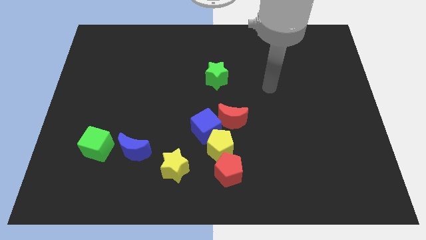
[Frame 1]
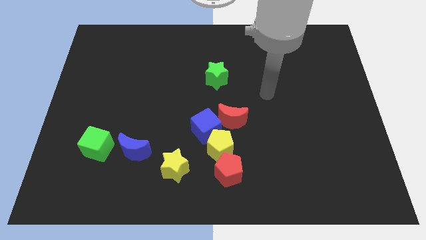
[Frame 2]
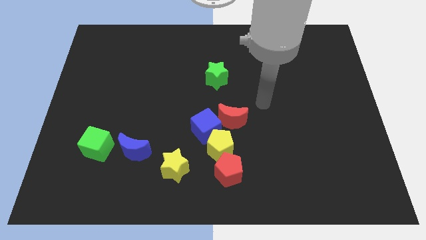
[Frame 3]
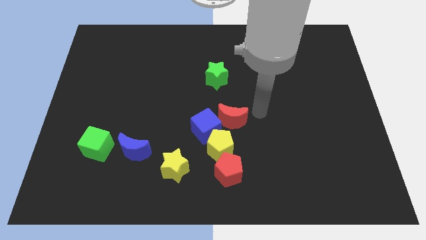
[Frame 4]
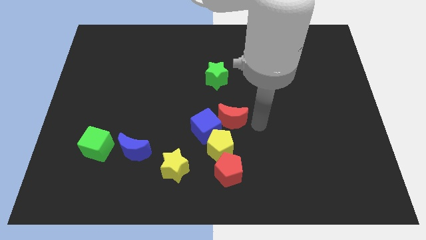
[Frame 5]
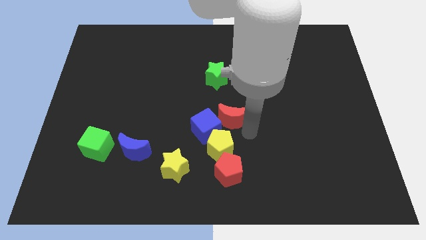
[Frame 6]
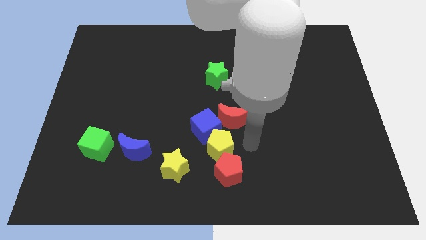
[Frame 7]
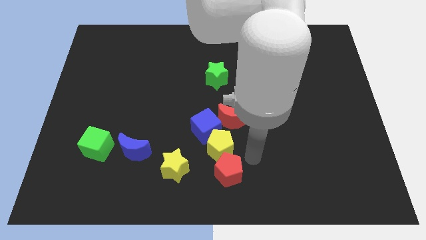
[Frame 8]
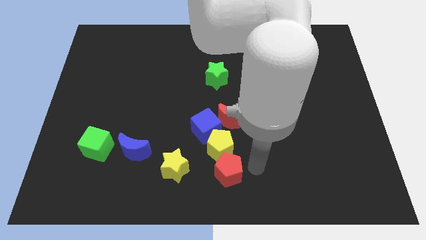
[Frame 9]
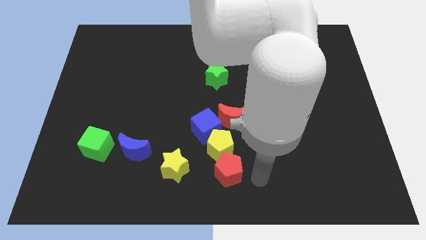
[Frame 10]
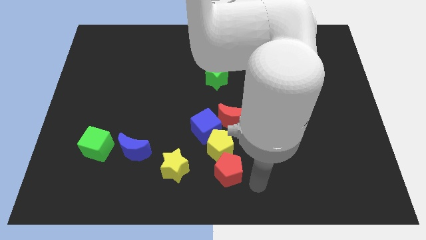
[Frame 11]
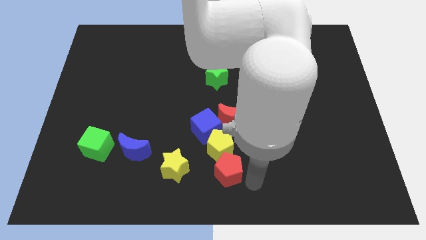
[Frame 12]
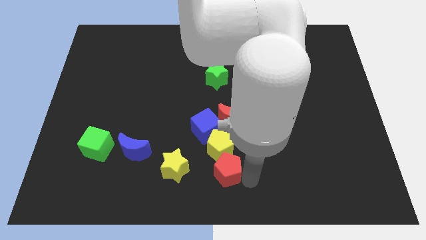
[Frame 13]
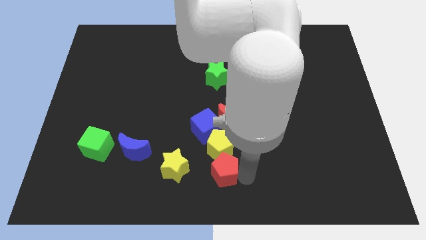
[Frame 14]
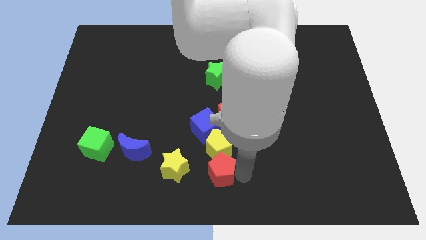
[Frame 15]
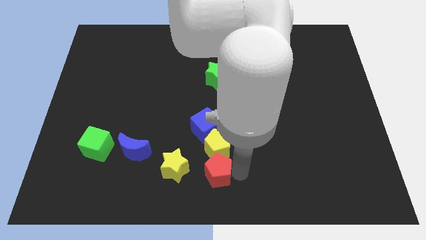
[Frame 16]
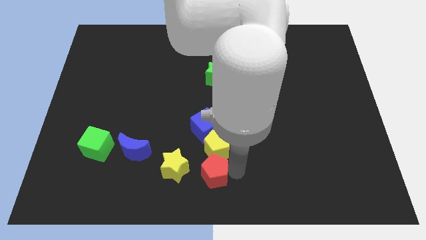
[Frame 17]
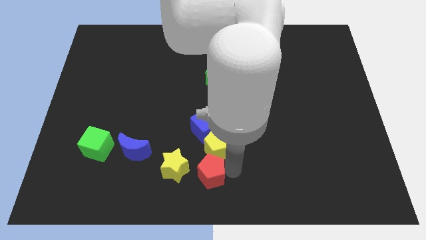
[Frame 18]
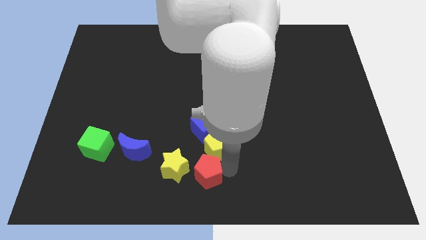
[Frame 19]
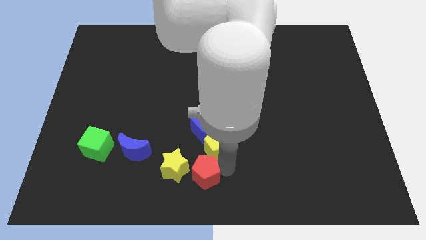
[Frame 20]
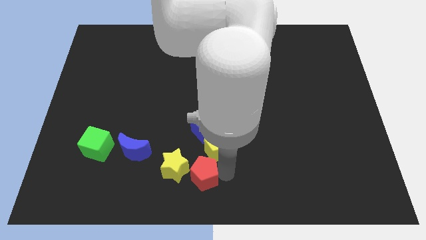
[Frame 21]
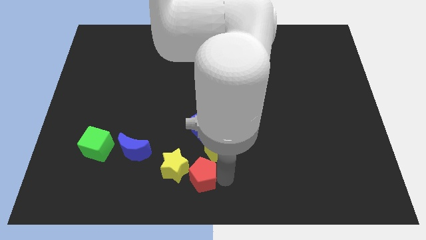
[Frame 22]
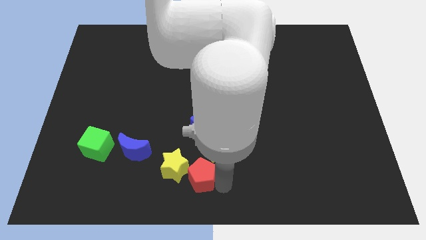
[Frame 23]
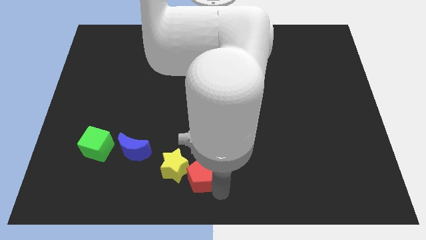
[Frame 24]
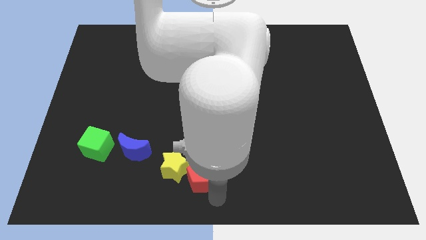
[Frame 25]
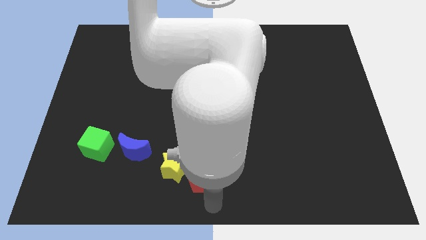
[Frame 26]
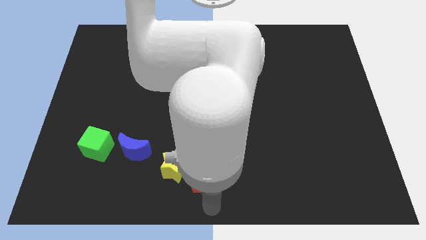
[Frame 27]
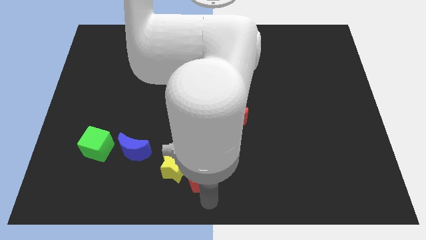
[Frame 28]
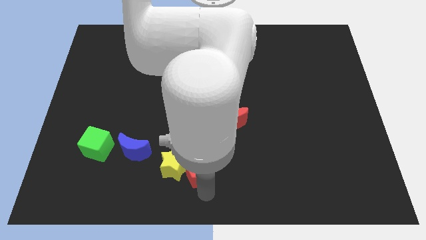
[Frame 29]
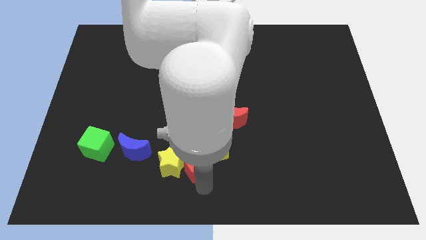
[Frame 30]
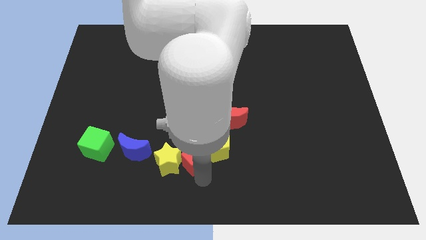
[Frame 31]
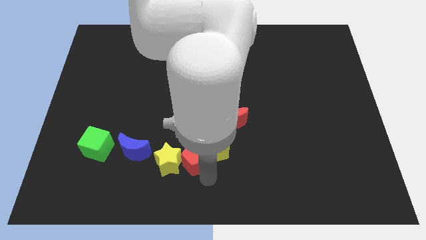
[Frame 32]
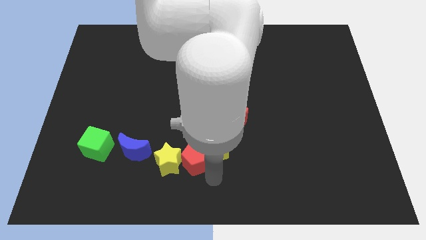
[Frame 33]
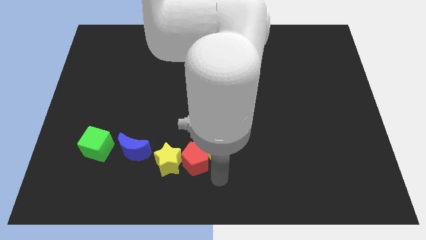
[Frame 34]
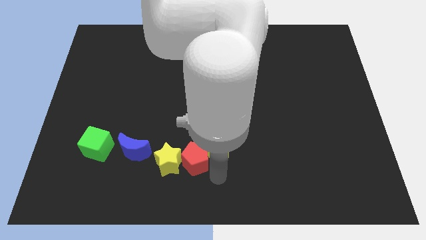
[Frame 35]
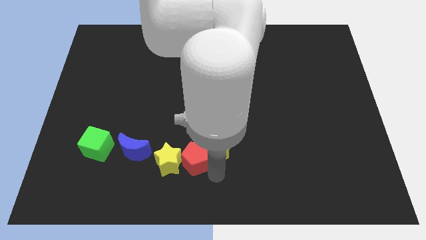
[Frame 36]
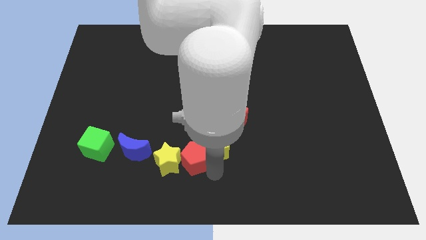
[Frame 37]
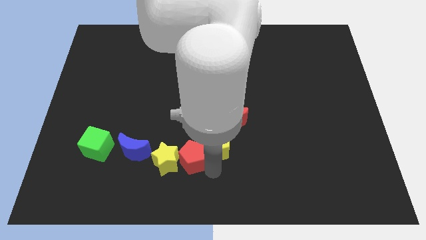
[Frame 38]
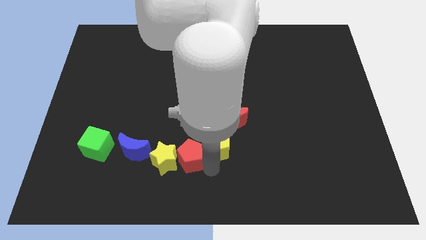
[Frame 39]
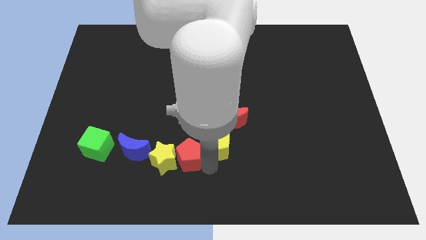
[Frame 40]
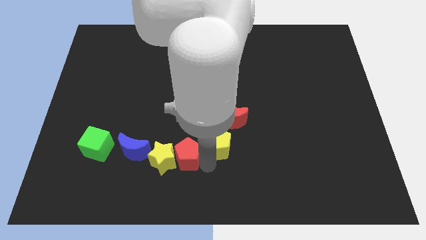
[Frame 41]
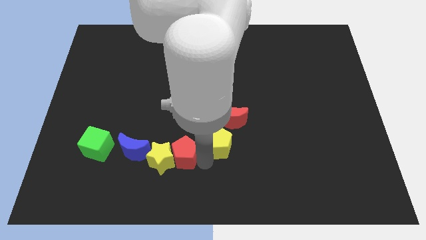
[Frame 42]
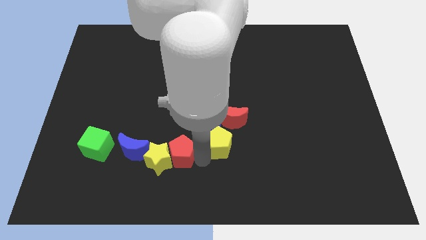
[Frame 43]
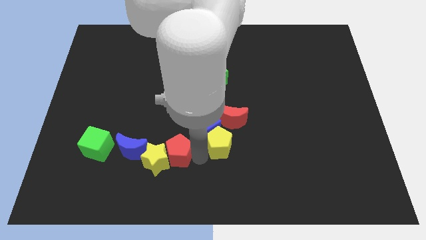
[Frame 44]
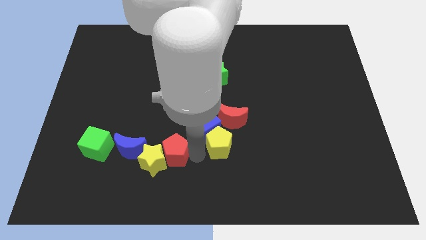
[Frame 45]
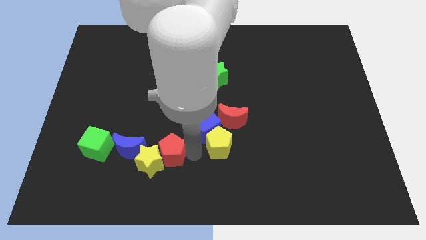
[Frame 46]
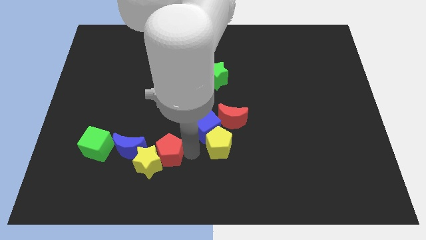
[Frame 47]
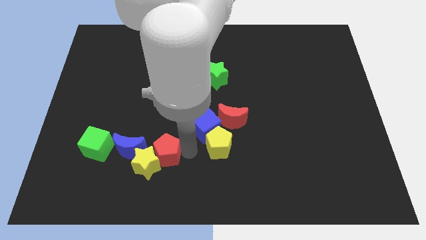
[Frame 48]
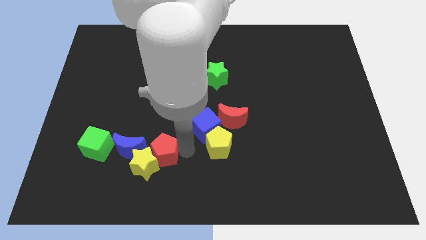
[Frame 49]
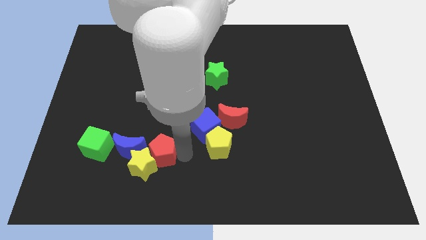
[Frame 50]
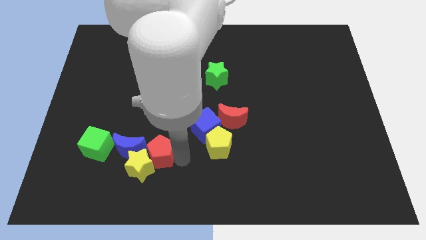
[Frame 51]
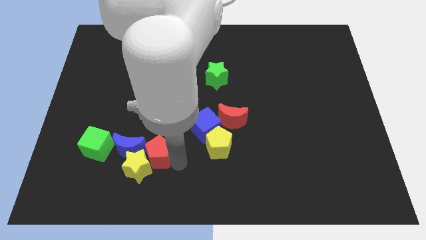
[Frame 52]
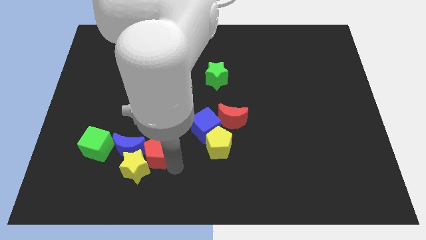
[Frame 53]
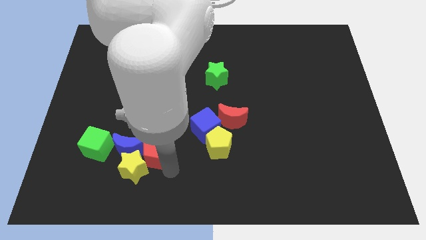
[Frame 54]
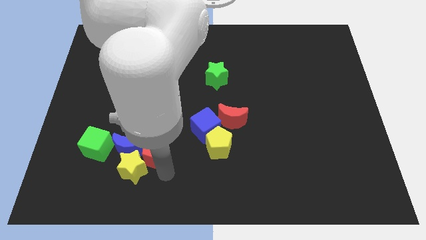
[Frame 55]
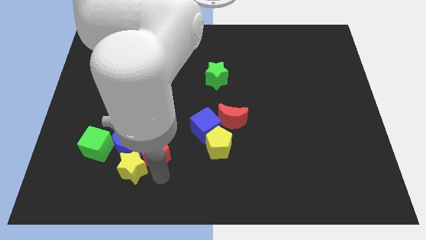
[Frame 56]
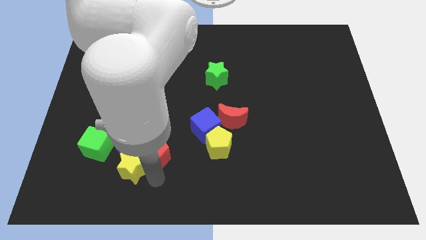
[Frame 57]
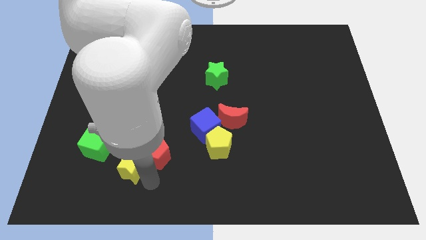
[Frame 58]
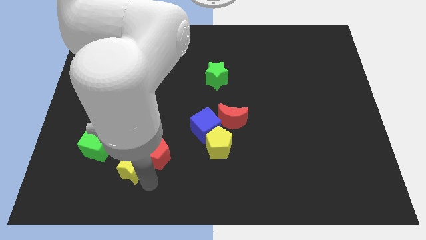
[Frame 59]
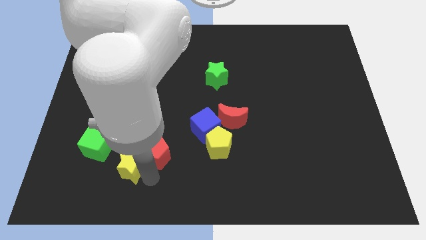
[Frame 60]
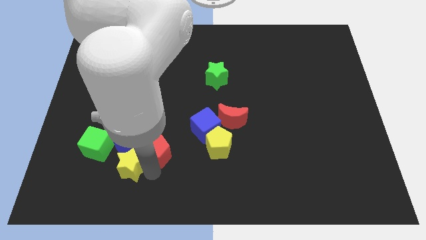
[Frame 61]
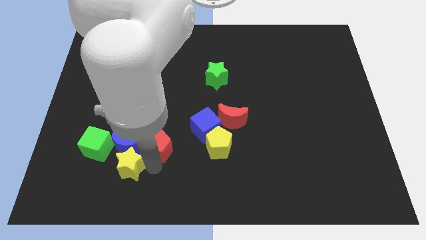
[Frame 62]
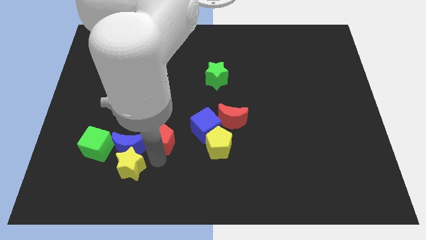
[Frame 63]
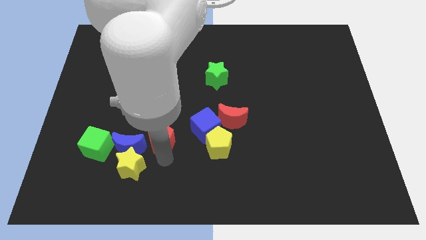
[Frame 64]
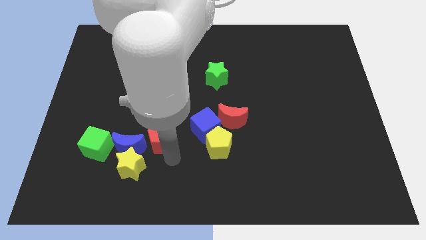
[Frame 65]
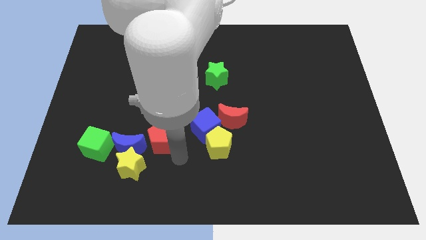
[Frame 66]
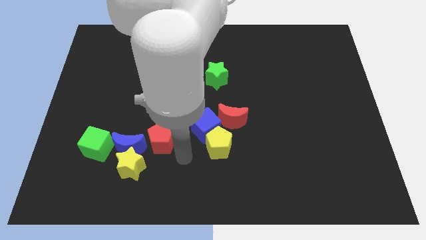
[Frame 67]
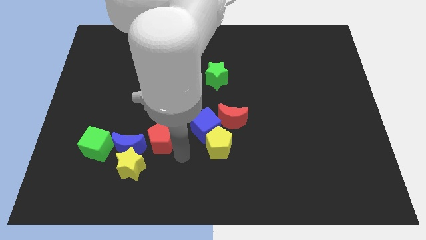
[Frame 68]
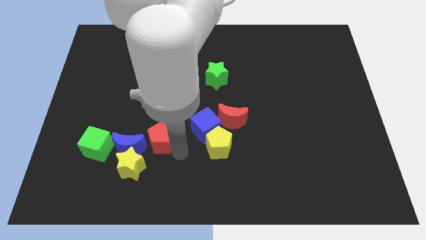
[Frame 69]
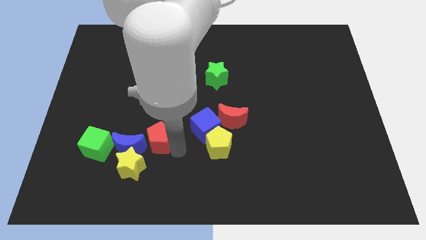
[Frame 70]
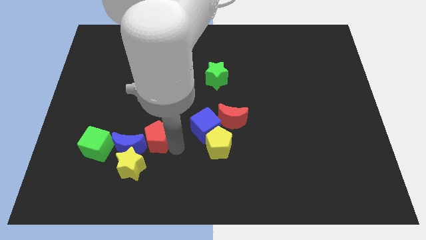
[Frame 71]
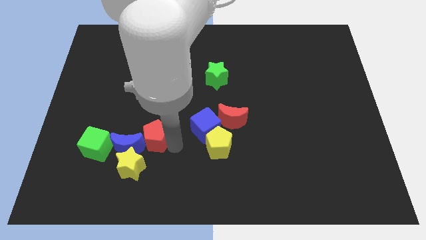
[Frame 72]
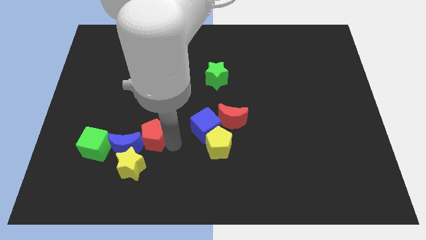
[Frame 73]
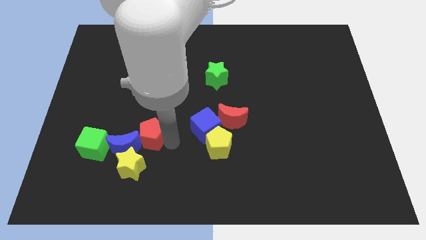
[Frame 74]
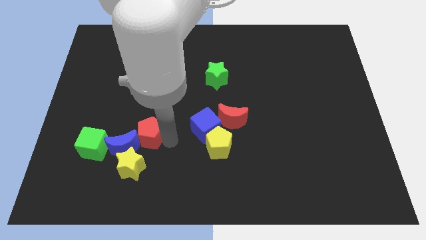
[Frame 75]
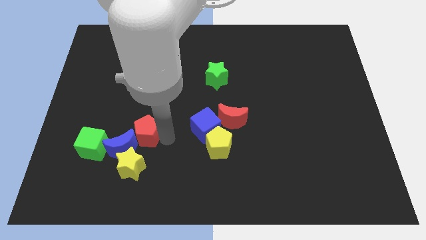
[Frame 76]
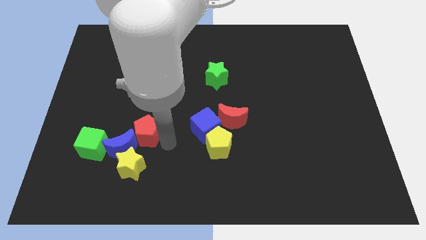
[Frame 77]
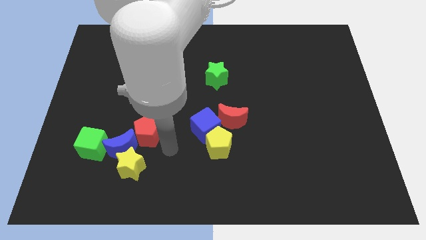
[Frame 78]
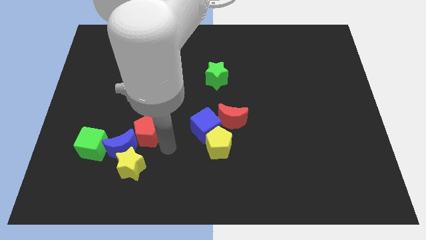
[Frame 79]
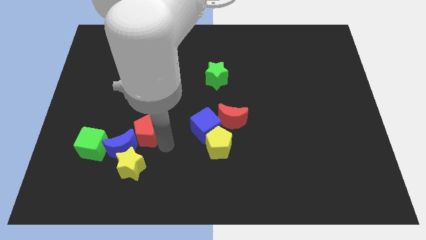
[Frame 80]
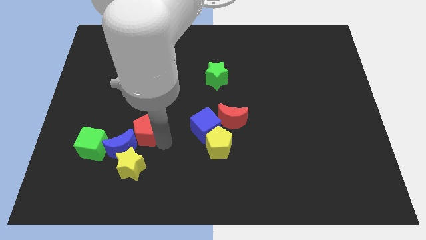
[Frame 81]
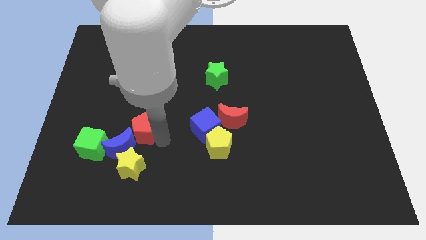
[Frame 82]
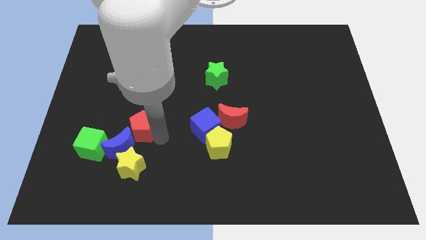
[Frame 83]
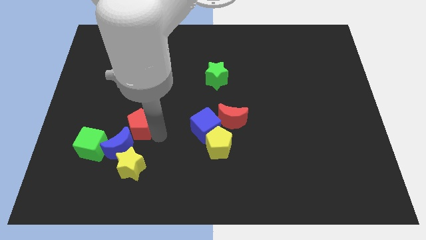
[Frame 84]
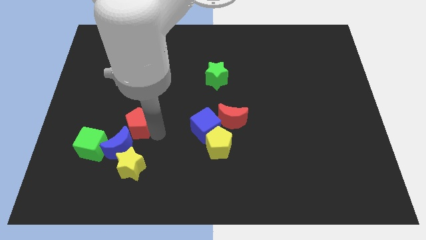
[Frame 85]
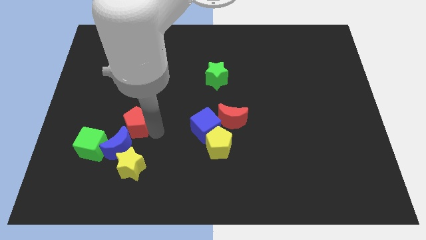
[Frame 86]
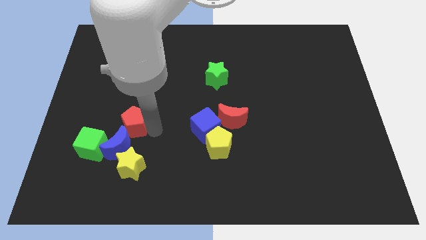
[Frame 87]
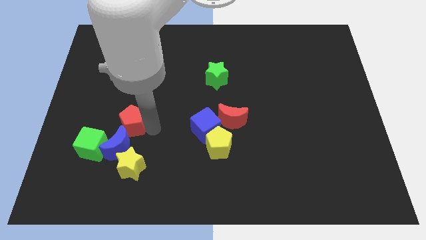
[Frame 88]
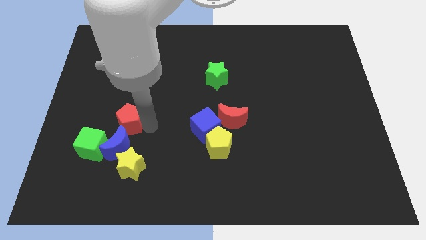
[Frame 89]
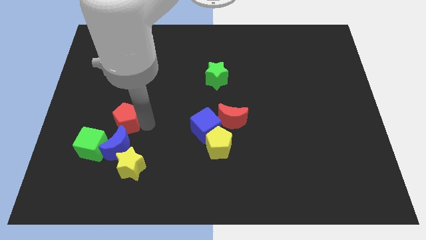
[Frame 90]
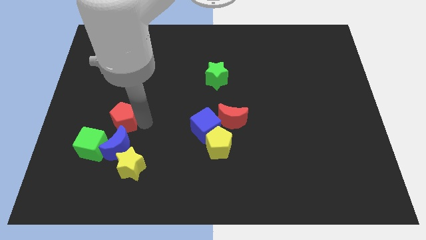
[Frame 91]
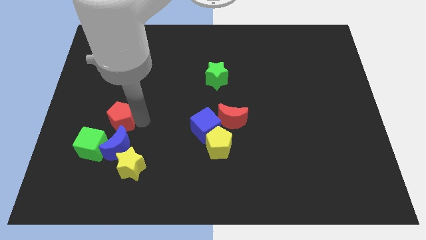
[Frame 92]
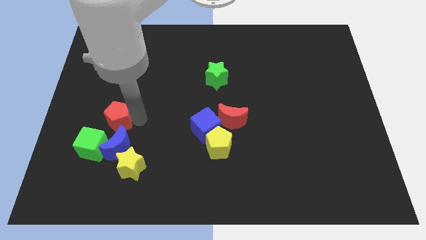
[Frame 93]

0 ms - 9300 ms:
move the red pentagon to the top of the green cube
